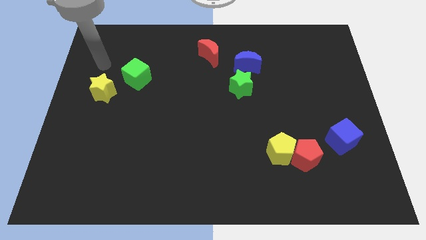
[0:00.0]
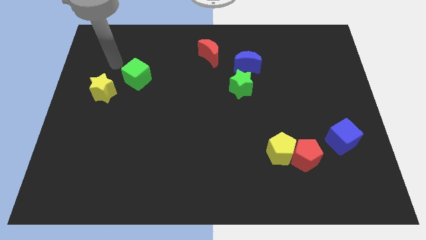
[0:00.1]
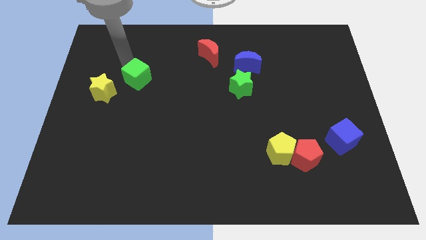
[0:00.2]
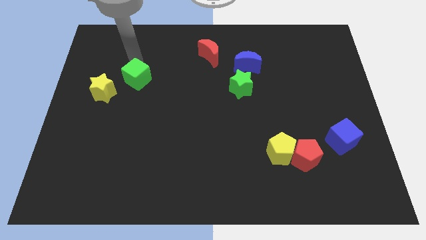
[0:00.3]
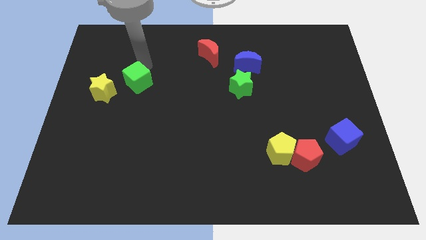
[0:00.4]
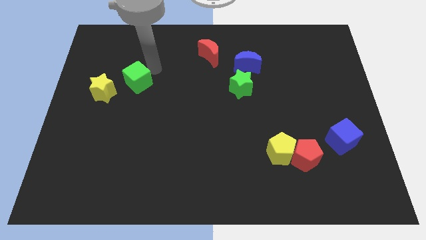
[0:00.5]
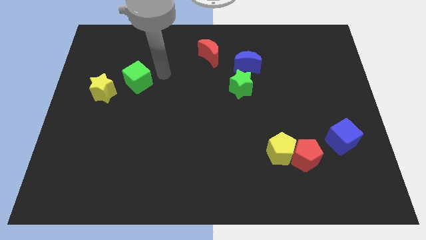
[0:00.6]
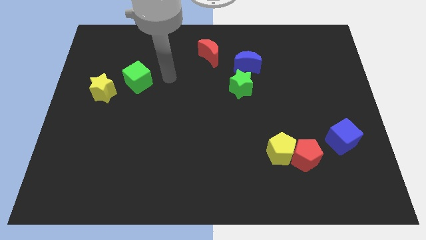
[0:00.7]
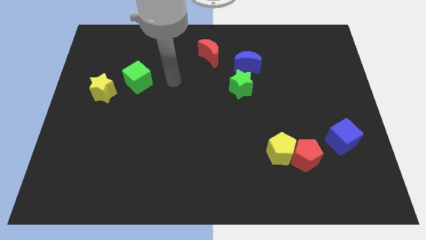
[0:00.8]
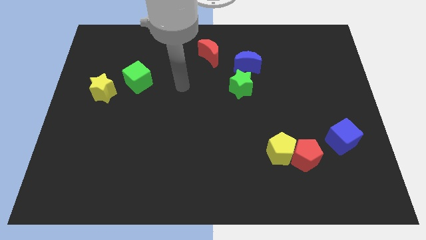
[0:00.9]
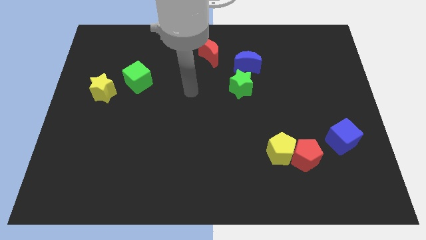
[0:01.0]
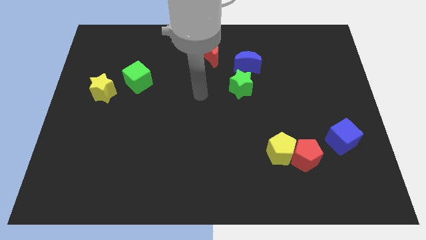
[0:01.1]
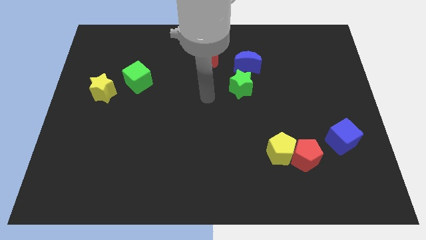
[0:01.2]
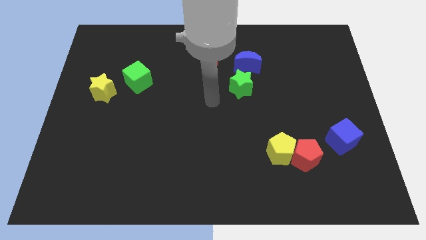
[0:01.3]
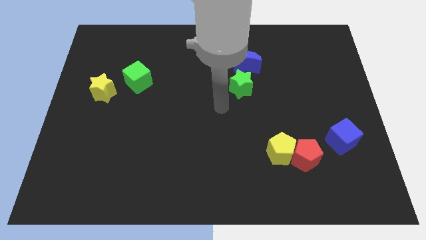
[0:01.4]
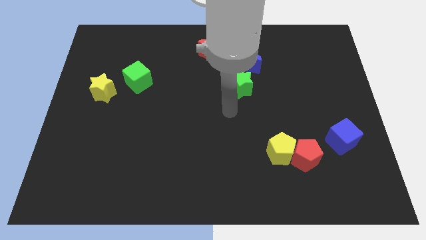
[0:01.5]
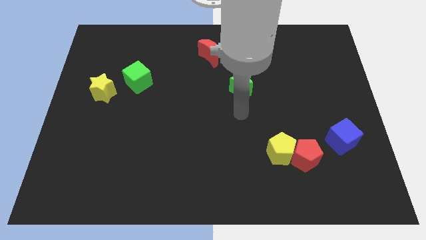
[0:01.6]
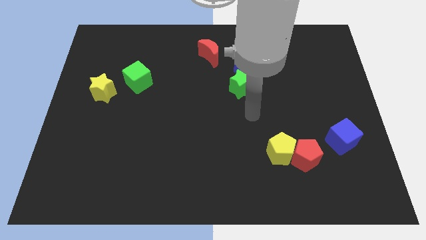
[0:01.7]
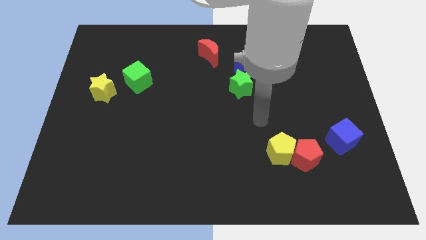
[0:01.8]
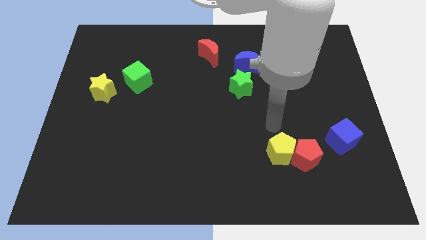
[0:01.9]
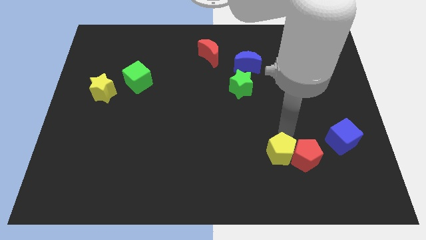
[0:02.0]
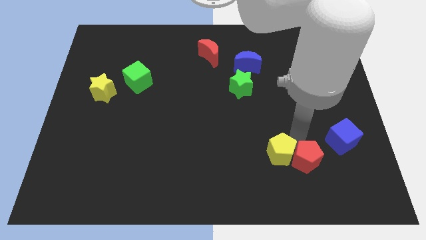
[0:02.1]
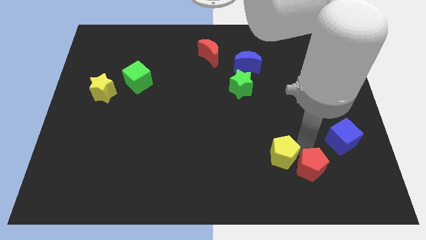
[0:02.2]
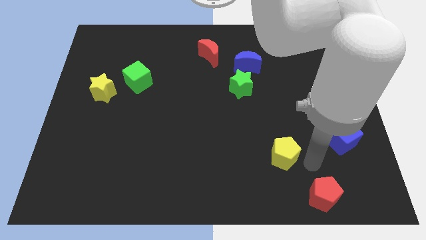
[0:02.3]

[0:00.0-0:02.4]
move the yellow pentagon away from the red pentagon

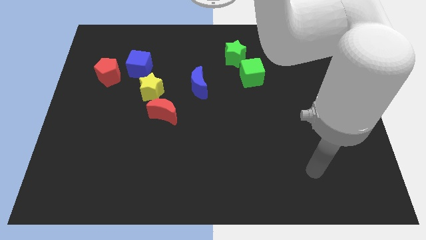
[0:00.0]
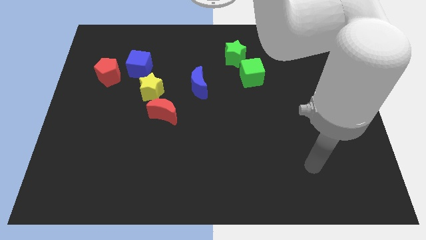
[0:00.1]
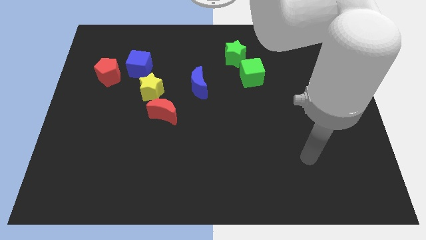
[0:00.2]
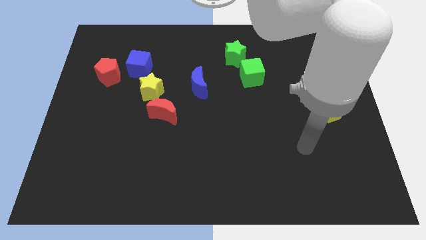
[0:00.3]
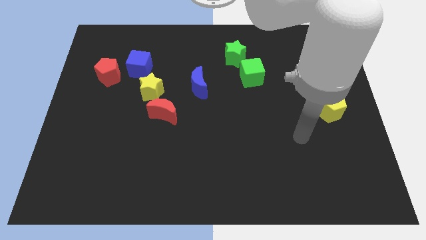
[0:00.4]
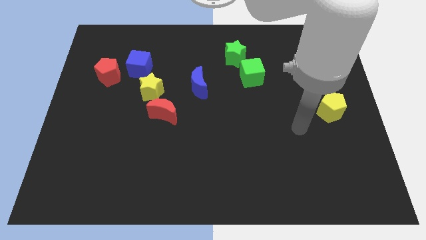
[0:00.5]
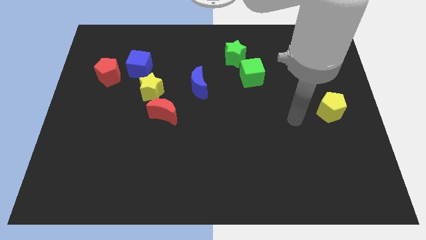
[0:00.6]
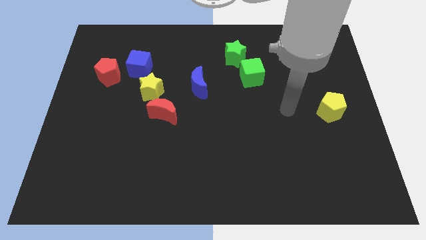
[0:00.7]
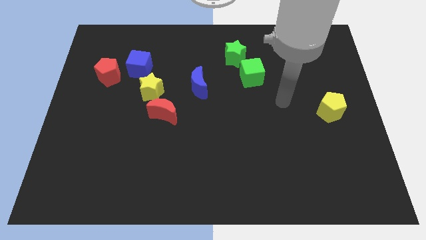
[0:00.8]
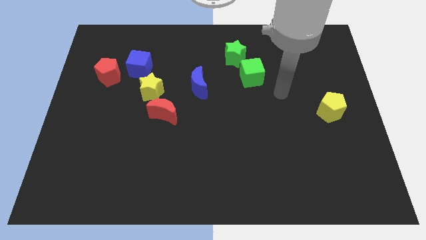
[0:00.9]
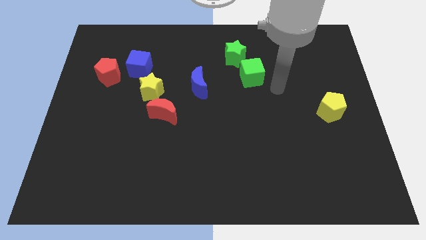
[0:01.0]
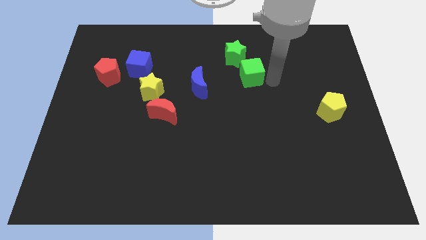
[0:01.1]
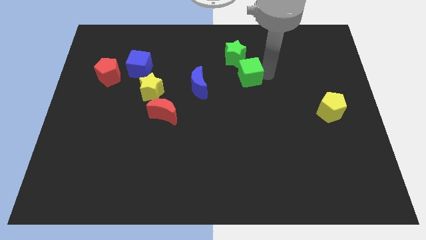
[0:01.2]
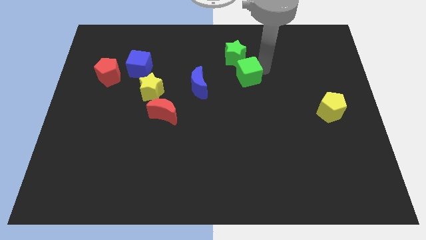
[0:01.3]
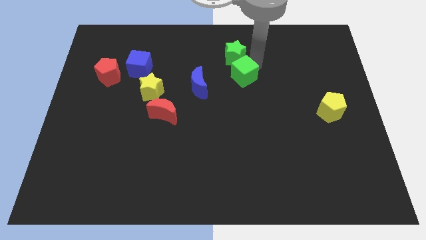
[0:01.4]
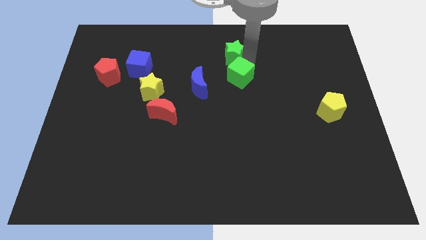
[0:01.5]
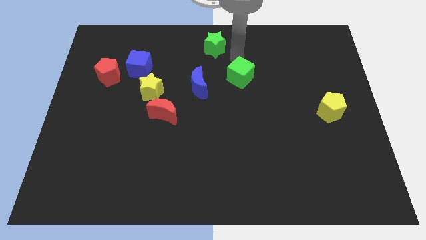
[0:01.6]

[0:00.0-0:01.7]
move the green cube away from the green star

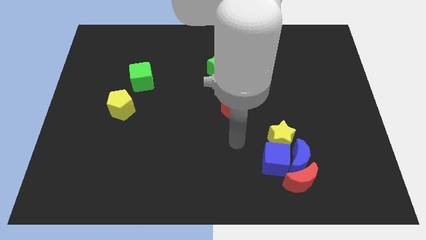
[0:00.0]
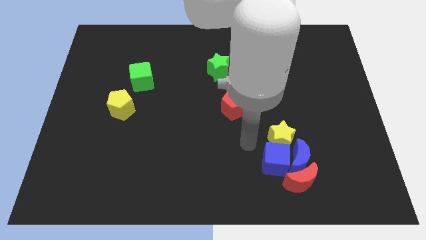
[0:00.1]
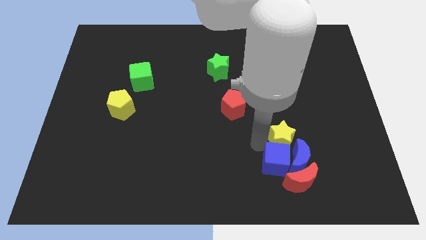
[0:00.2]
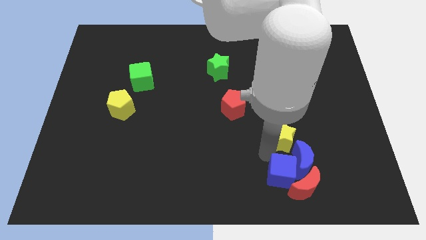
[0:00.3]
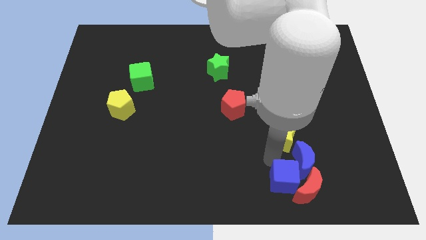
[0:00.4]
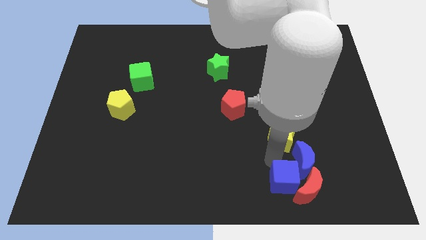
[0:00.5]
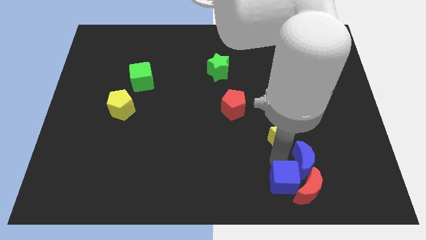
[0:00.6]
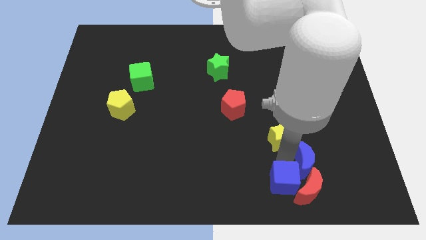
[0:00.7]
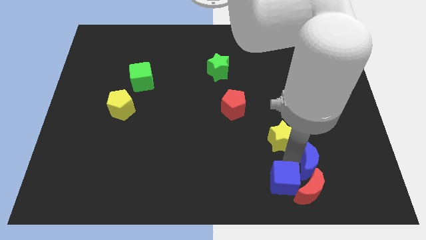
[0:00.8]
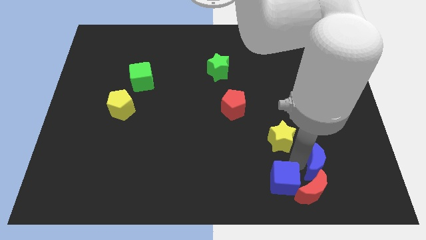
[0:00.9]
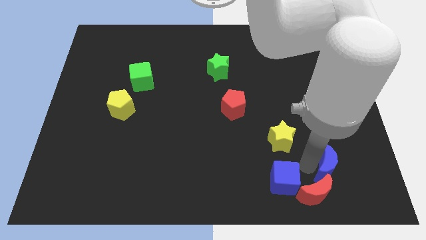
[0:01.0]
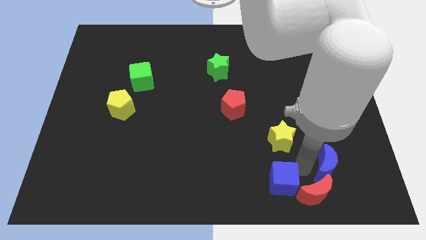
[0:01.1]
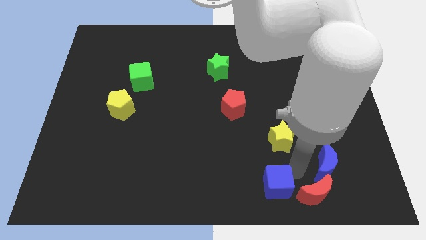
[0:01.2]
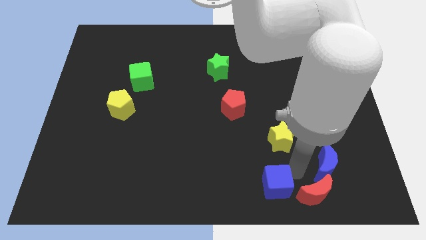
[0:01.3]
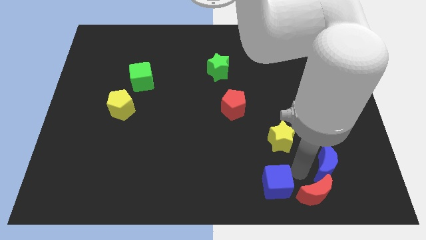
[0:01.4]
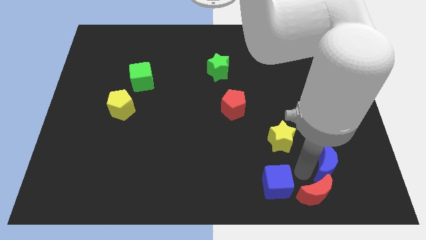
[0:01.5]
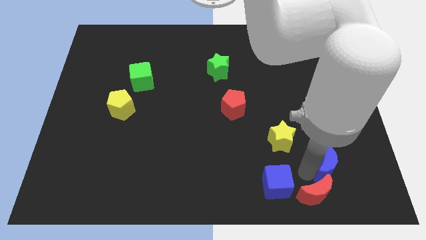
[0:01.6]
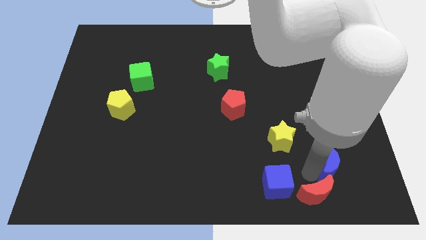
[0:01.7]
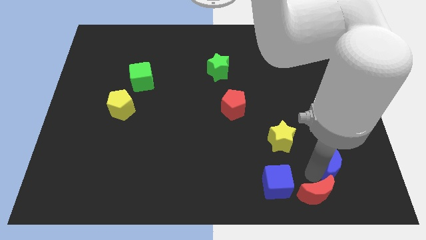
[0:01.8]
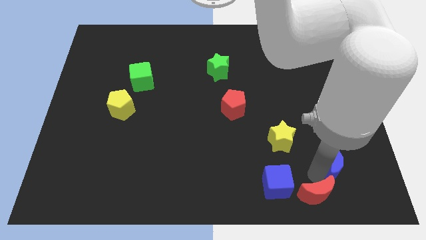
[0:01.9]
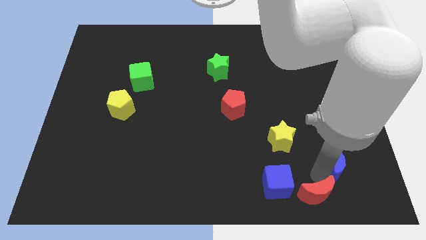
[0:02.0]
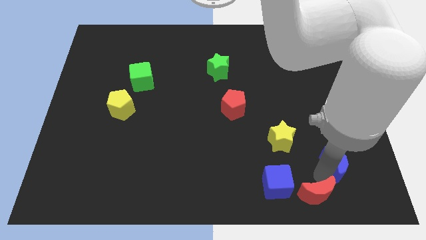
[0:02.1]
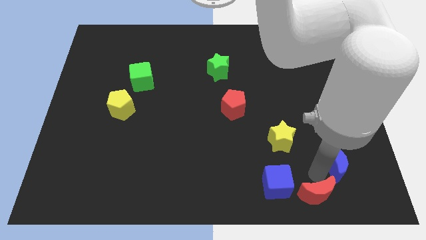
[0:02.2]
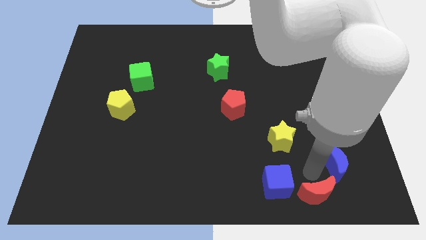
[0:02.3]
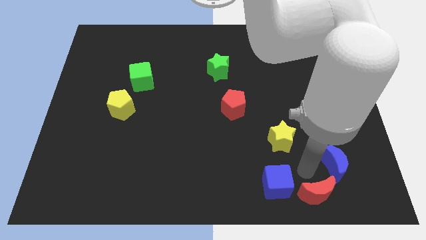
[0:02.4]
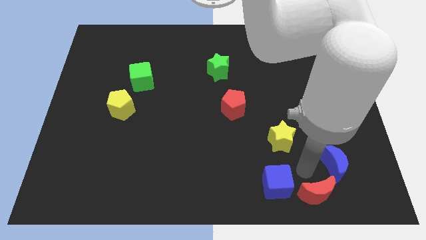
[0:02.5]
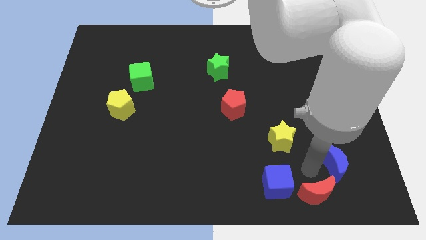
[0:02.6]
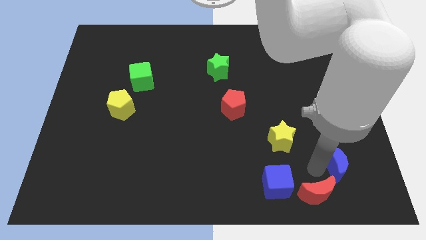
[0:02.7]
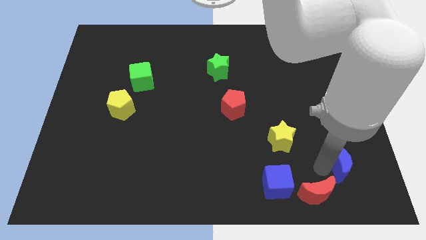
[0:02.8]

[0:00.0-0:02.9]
separate the blue moon from the red moon, blue cube, and yellow star

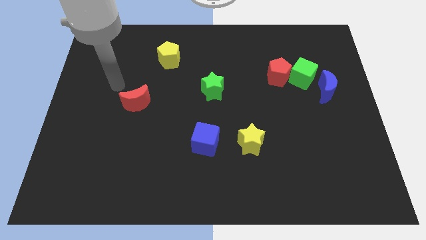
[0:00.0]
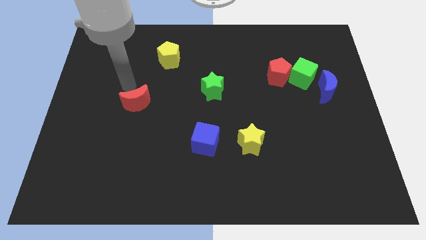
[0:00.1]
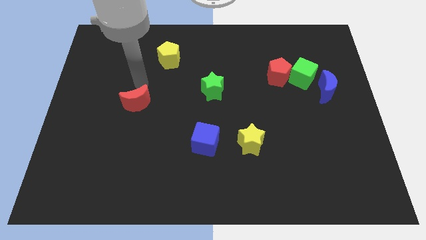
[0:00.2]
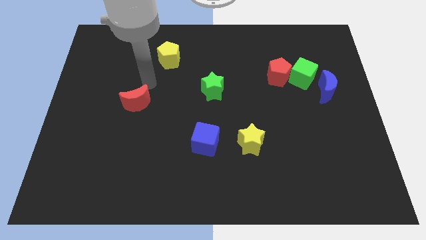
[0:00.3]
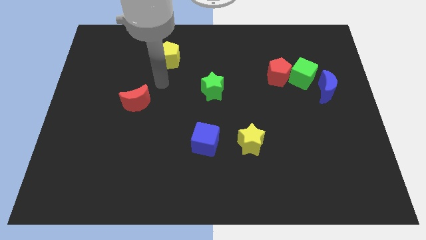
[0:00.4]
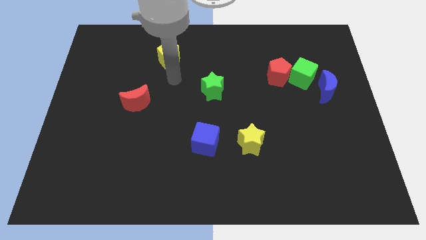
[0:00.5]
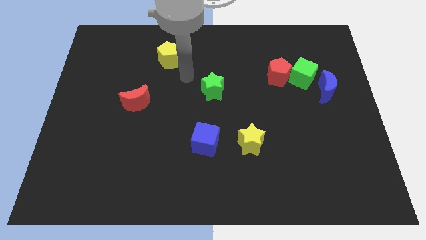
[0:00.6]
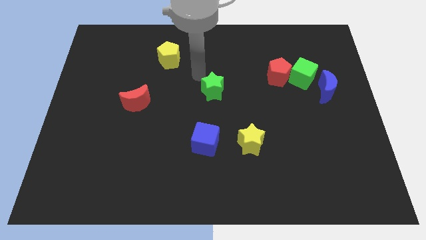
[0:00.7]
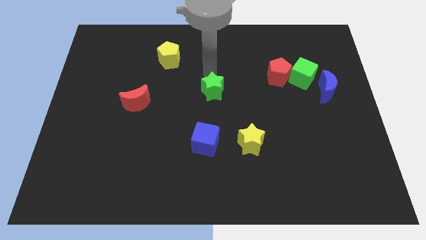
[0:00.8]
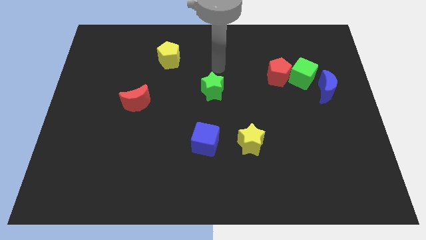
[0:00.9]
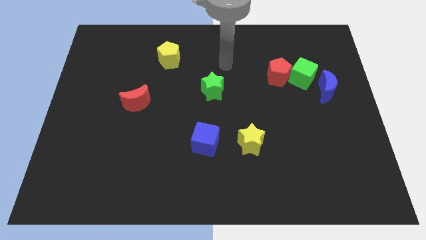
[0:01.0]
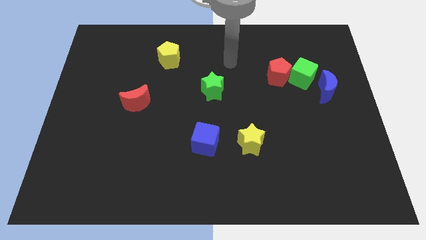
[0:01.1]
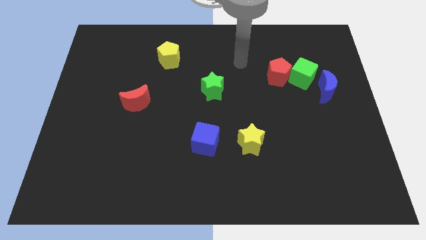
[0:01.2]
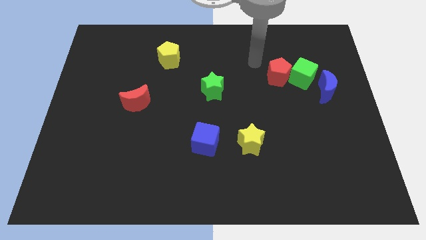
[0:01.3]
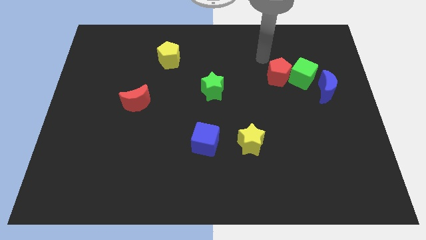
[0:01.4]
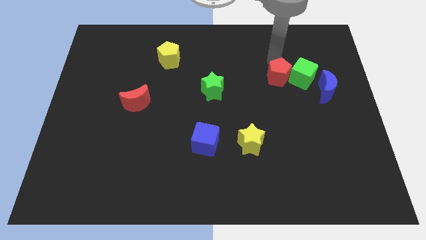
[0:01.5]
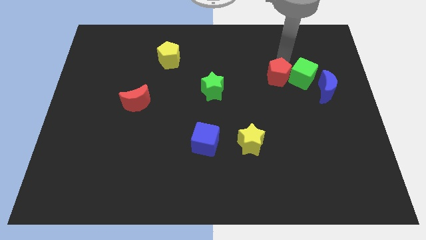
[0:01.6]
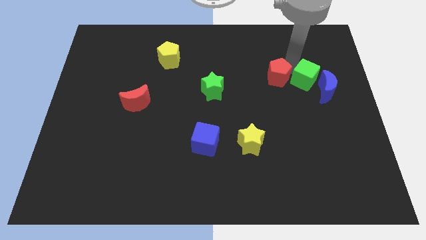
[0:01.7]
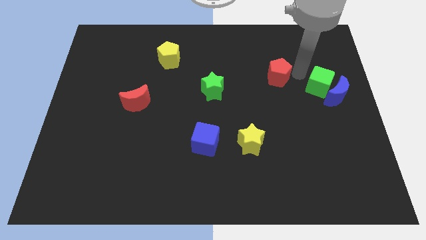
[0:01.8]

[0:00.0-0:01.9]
move the red pentagon away from the green cube

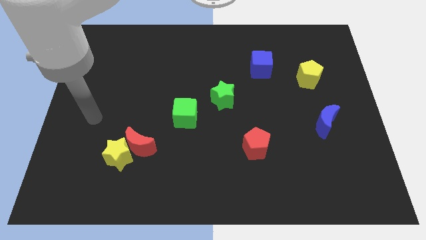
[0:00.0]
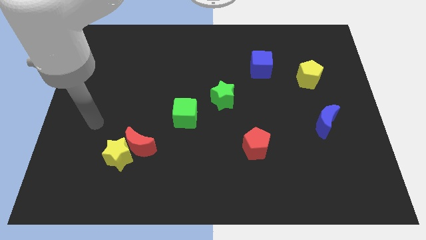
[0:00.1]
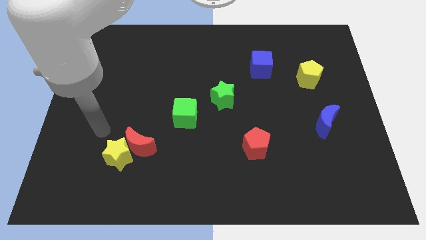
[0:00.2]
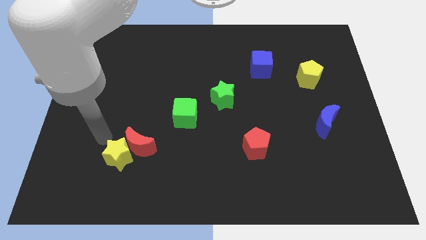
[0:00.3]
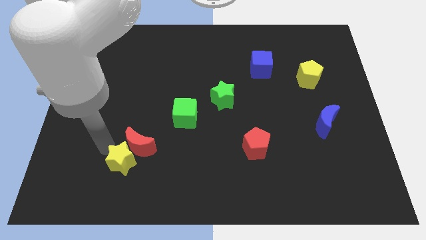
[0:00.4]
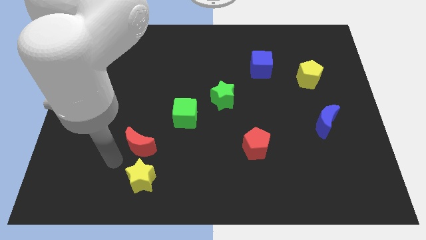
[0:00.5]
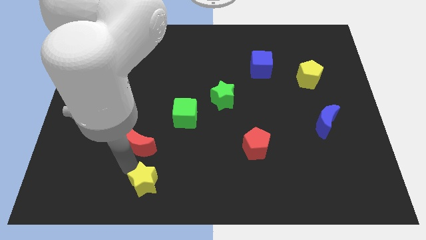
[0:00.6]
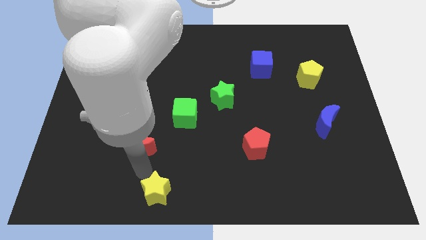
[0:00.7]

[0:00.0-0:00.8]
pull the red moon apart from the yellow star
